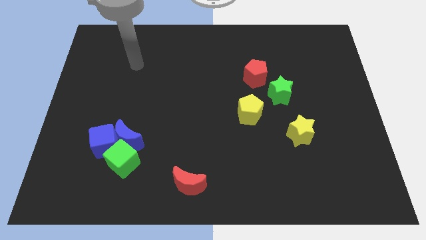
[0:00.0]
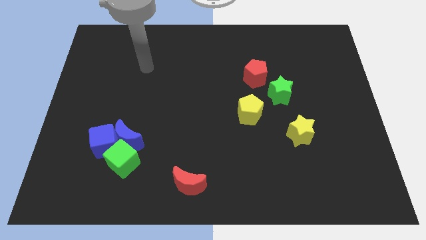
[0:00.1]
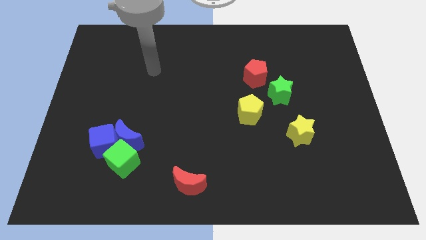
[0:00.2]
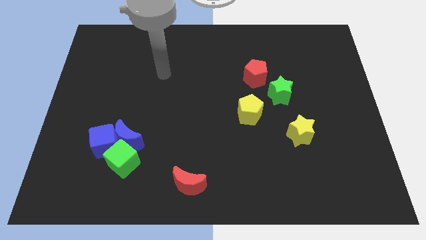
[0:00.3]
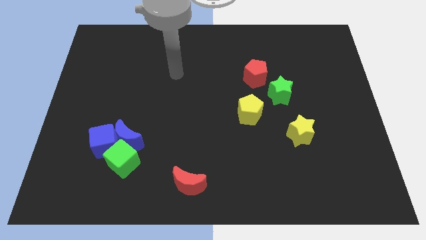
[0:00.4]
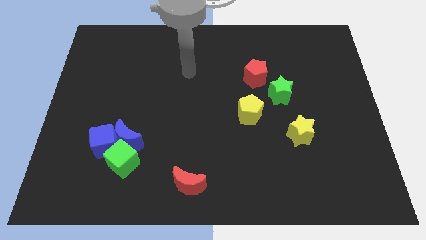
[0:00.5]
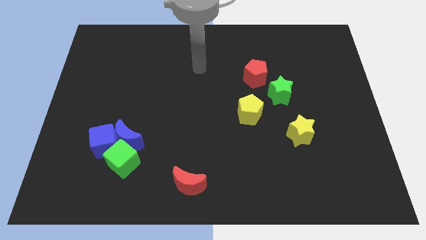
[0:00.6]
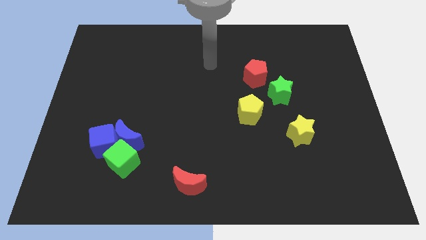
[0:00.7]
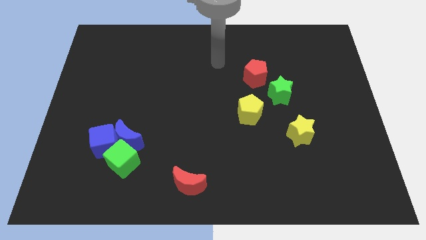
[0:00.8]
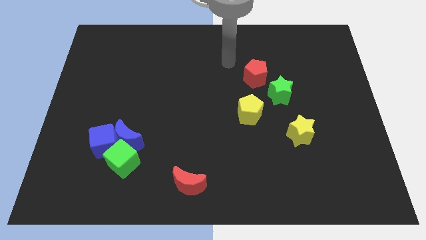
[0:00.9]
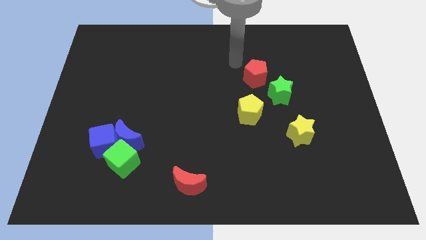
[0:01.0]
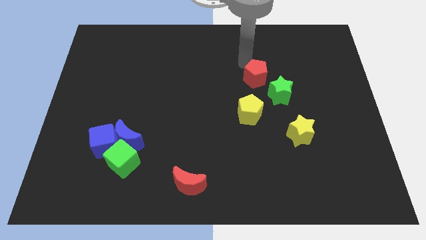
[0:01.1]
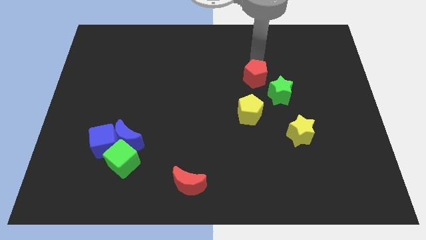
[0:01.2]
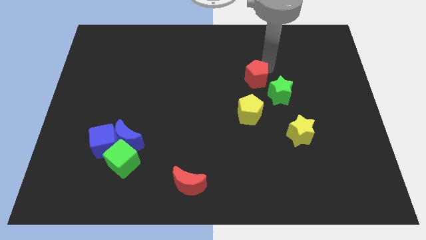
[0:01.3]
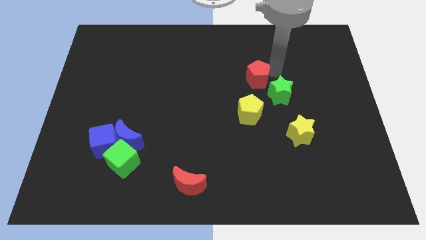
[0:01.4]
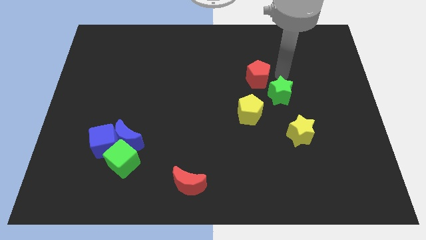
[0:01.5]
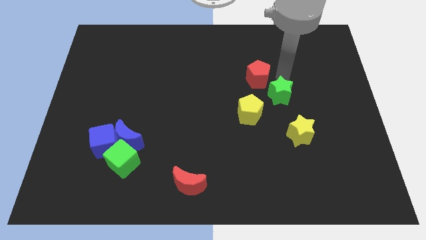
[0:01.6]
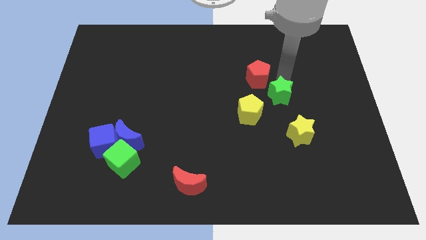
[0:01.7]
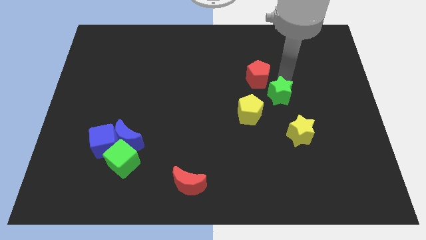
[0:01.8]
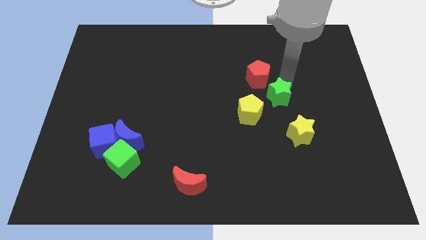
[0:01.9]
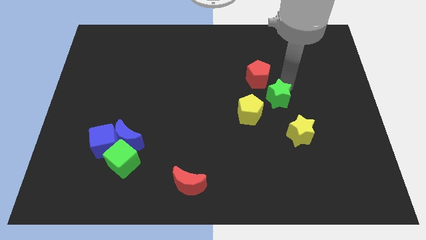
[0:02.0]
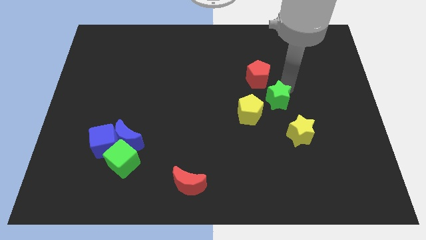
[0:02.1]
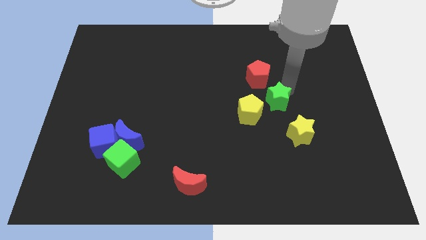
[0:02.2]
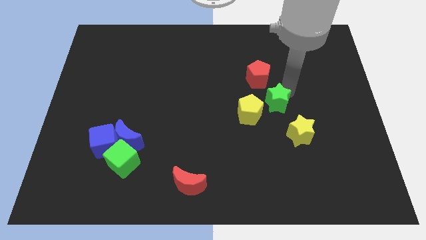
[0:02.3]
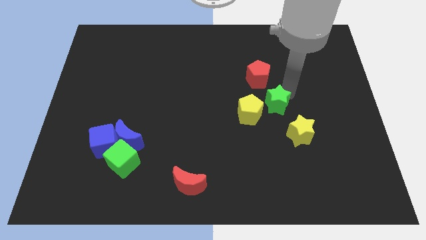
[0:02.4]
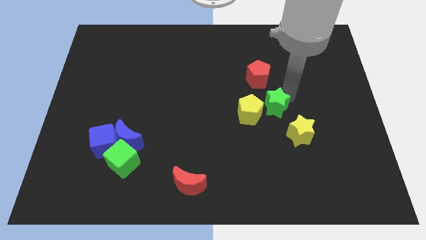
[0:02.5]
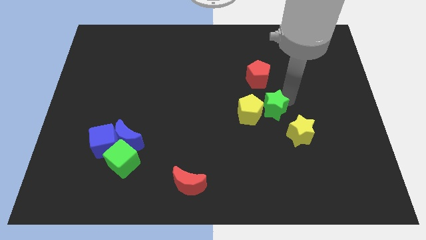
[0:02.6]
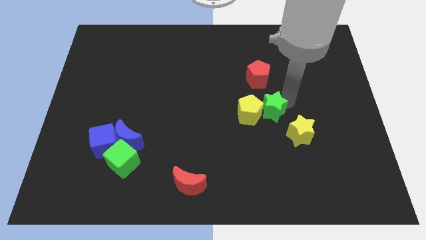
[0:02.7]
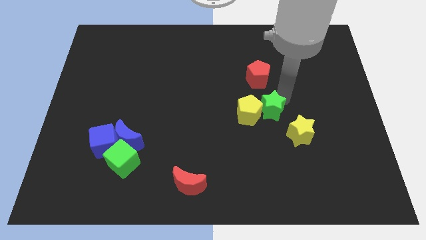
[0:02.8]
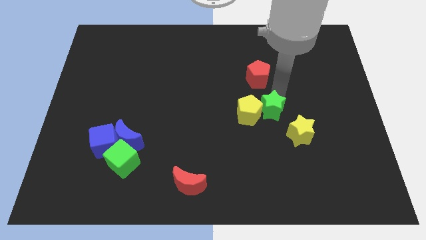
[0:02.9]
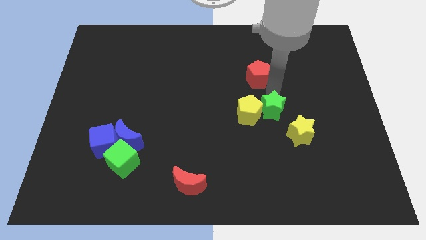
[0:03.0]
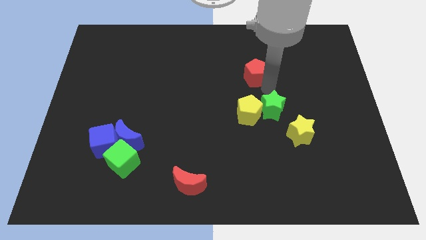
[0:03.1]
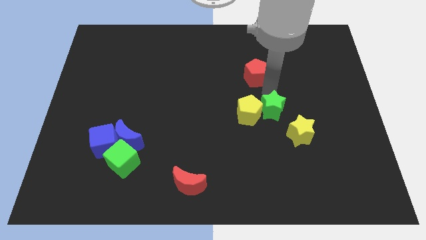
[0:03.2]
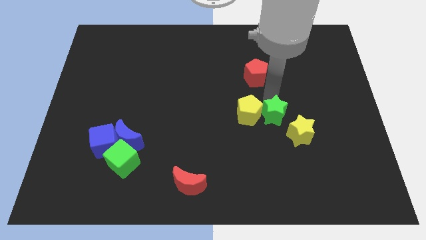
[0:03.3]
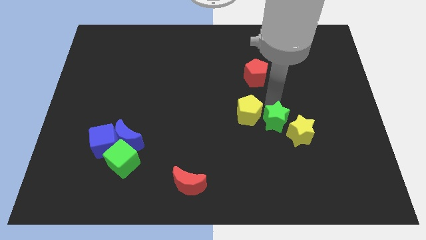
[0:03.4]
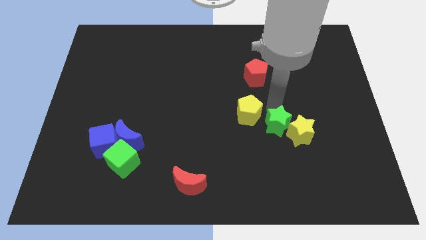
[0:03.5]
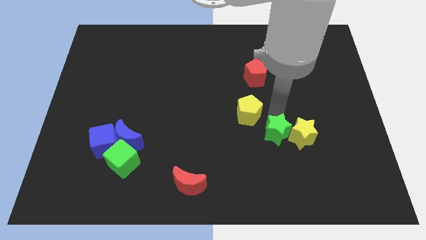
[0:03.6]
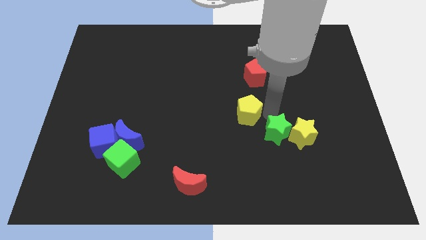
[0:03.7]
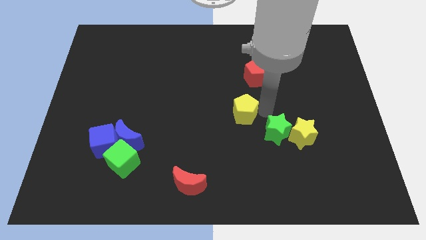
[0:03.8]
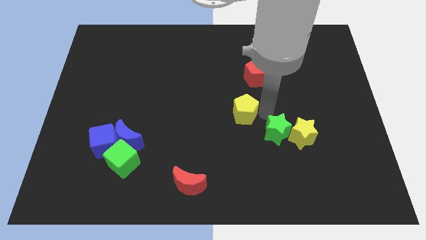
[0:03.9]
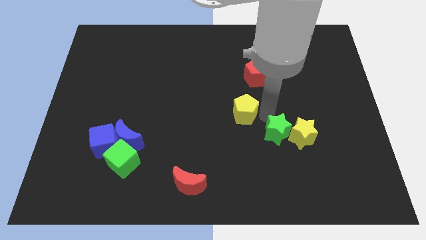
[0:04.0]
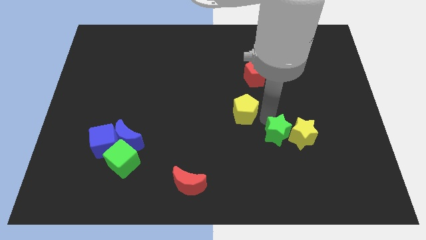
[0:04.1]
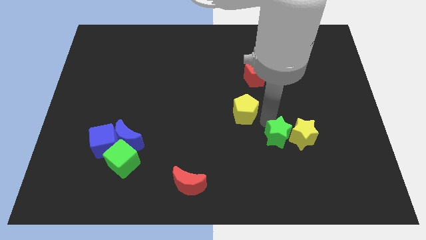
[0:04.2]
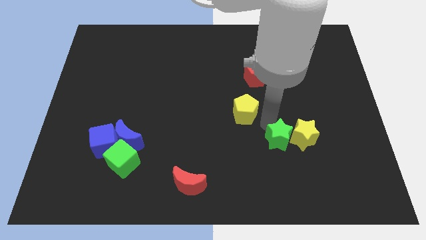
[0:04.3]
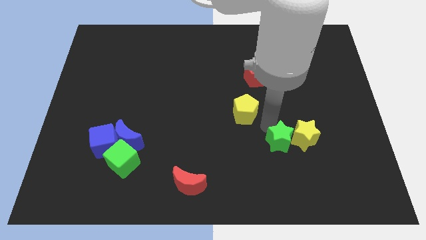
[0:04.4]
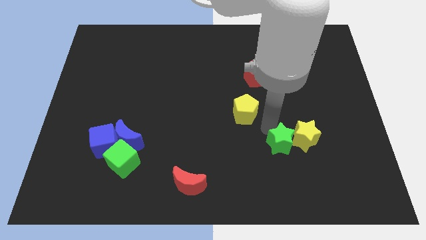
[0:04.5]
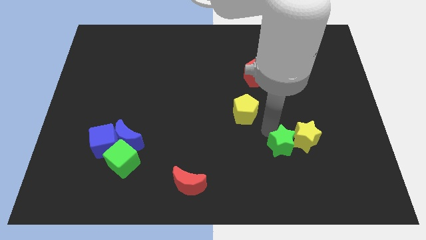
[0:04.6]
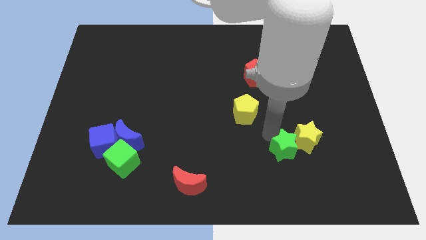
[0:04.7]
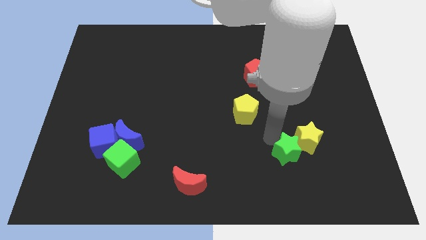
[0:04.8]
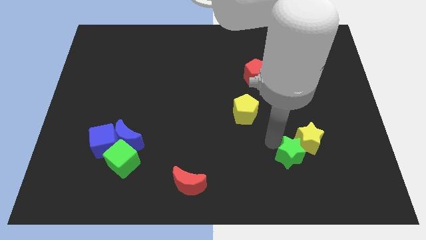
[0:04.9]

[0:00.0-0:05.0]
push the green star to the bottom side of the yellow star
